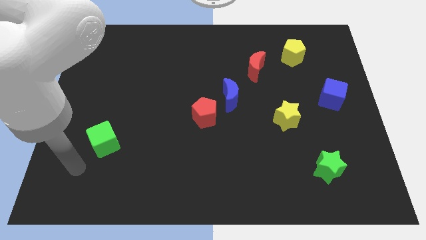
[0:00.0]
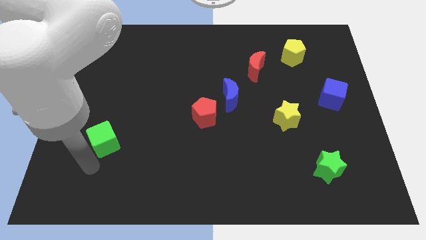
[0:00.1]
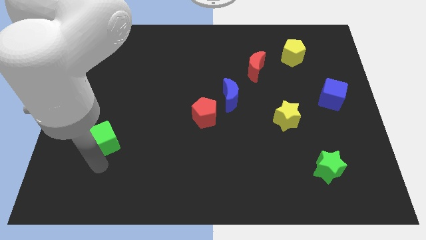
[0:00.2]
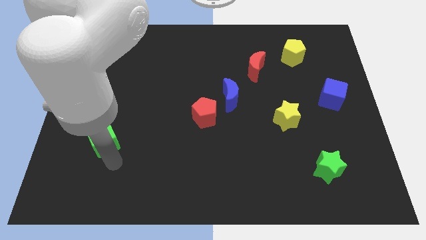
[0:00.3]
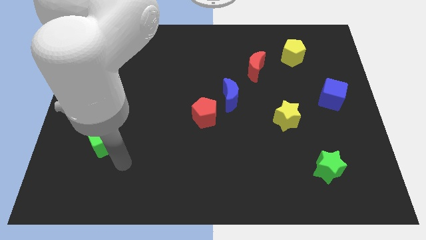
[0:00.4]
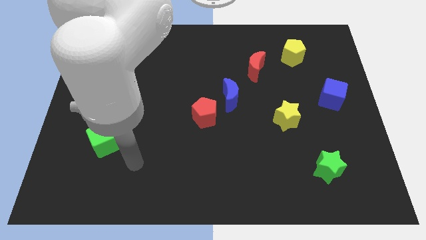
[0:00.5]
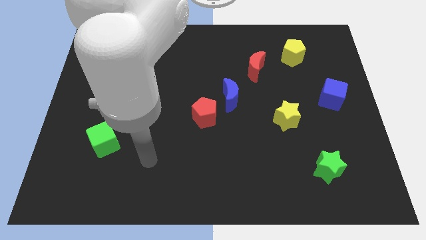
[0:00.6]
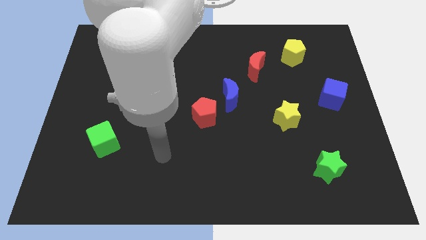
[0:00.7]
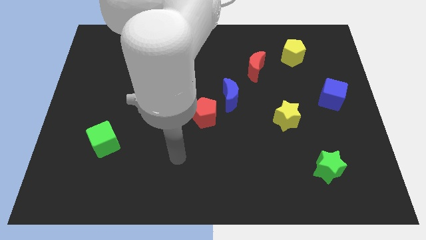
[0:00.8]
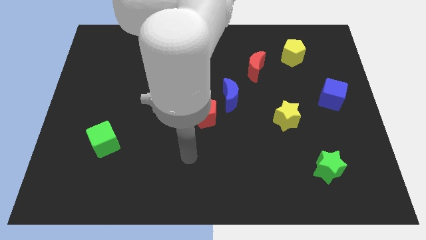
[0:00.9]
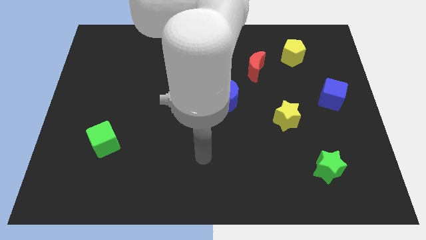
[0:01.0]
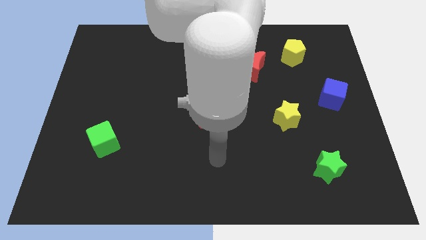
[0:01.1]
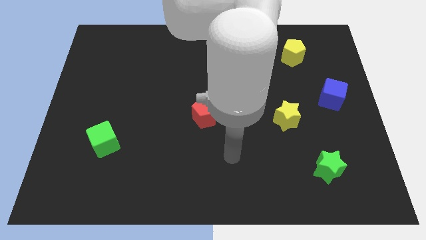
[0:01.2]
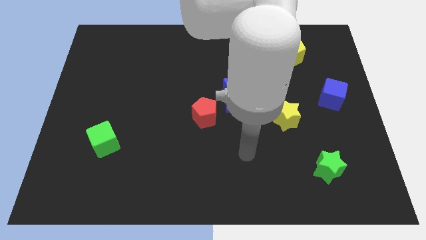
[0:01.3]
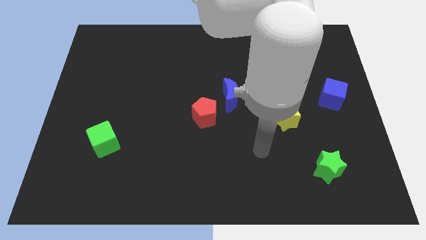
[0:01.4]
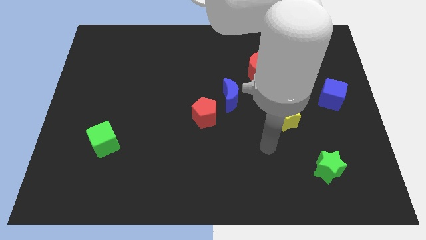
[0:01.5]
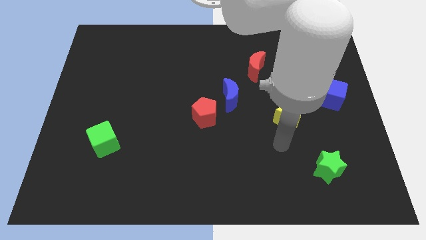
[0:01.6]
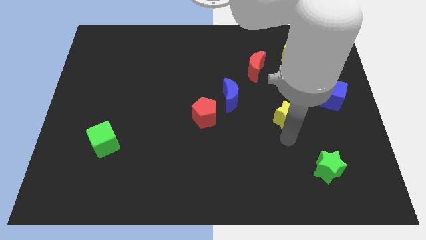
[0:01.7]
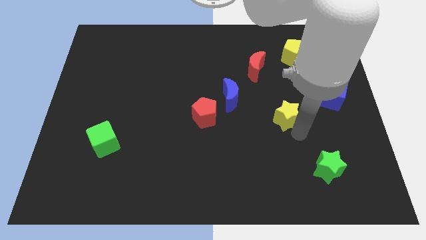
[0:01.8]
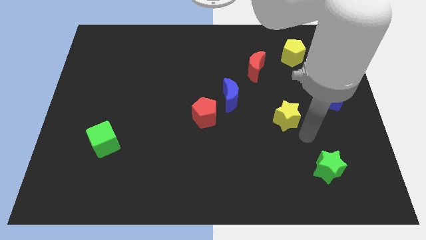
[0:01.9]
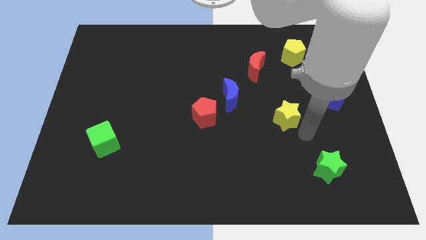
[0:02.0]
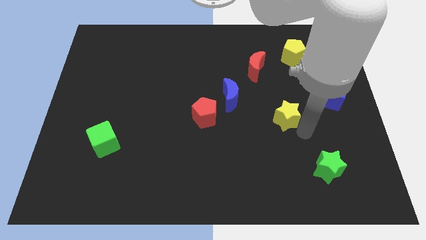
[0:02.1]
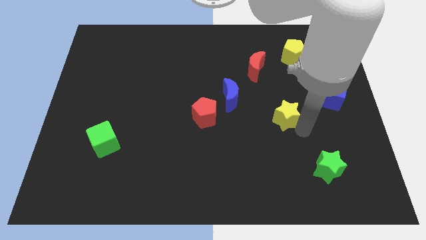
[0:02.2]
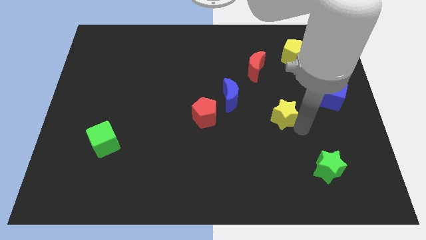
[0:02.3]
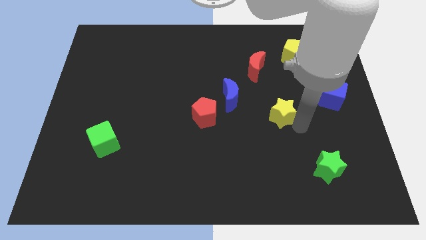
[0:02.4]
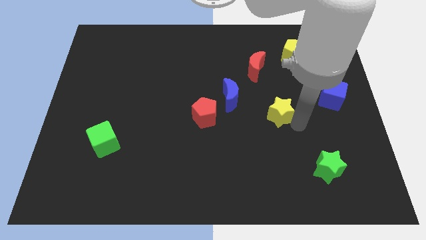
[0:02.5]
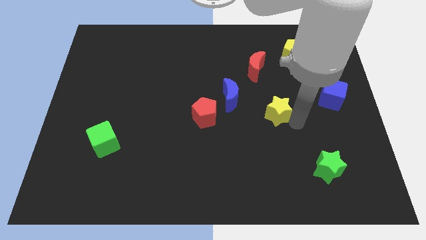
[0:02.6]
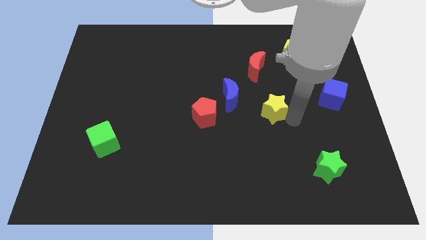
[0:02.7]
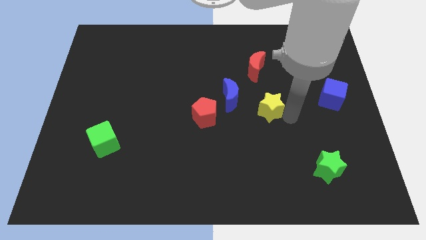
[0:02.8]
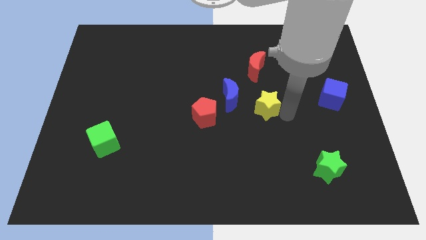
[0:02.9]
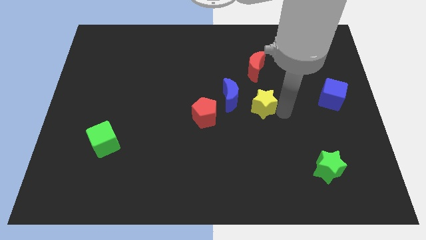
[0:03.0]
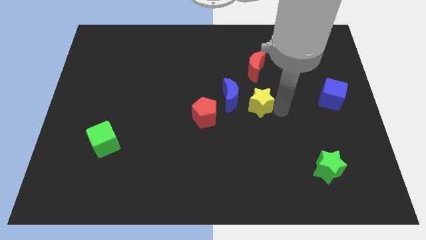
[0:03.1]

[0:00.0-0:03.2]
slide the yellow star diagonally upwards and left a little bit

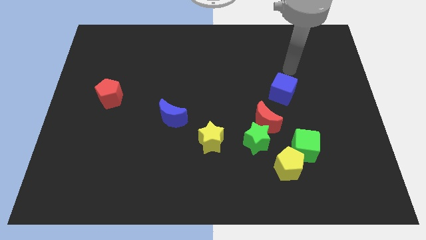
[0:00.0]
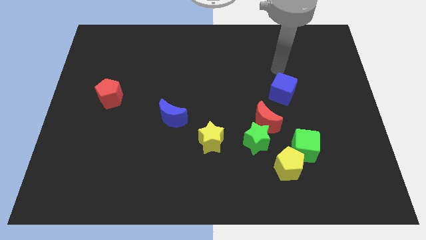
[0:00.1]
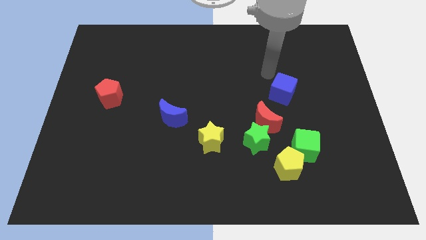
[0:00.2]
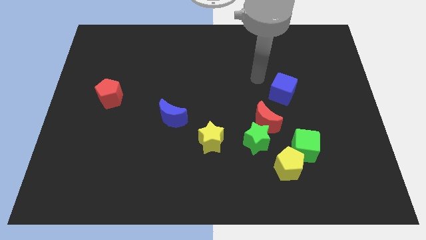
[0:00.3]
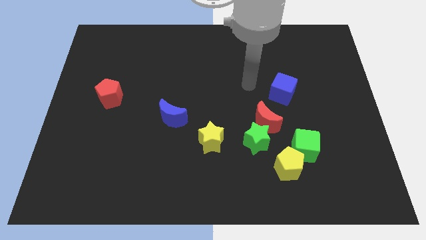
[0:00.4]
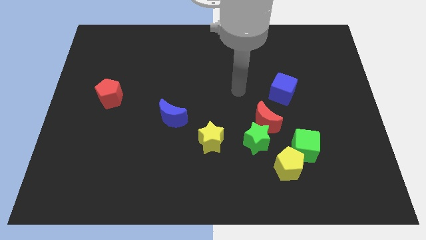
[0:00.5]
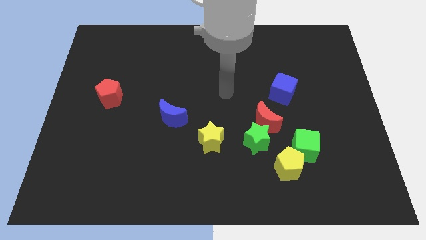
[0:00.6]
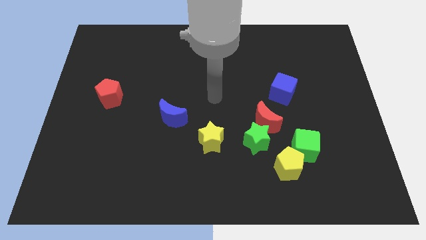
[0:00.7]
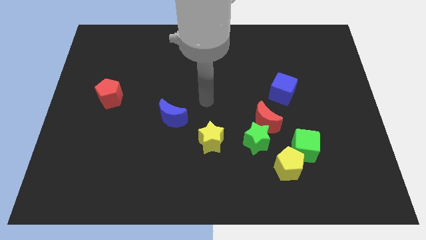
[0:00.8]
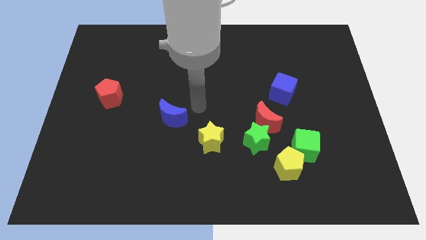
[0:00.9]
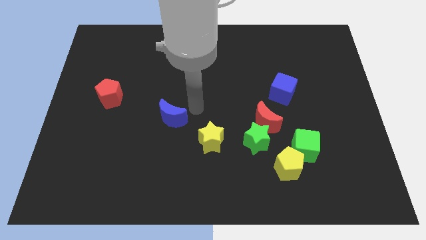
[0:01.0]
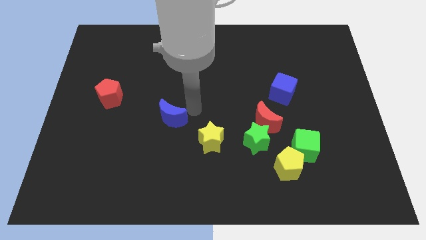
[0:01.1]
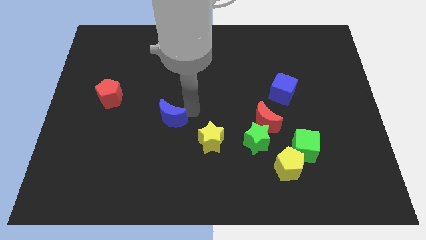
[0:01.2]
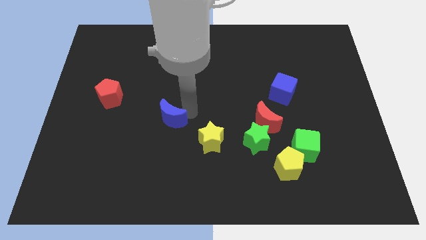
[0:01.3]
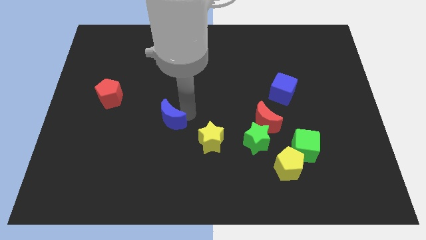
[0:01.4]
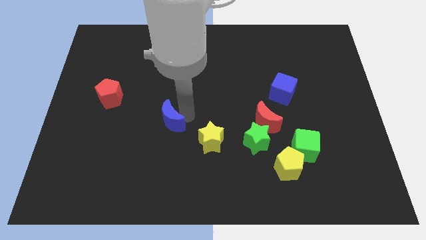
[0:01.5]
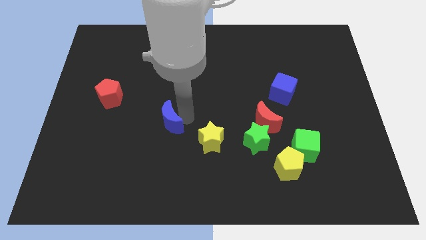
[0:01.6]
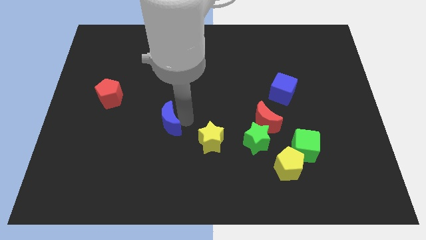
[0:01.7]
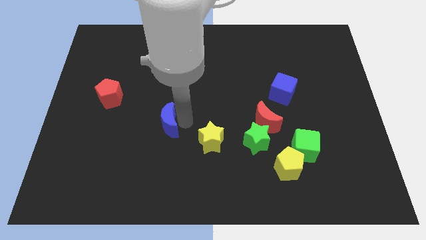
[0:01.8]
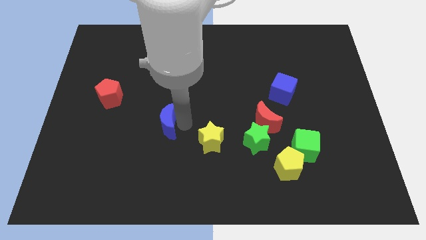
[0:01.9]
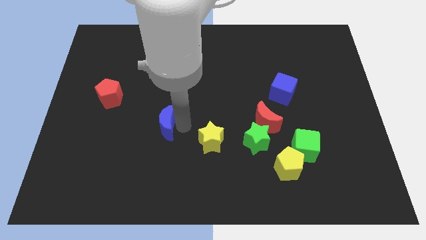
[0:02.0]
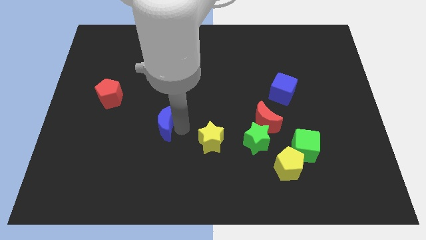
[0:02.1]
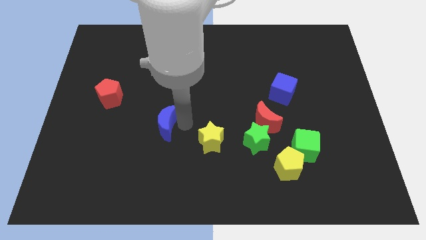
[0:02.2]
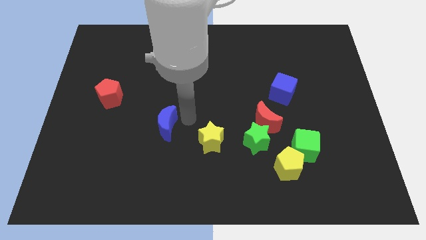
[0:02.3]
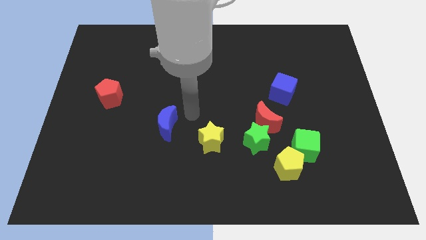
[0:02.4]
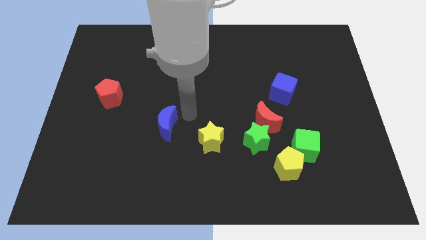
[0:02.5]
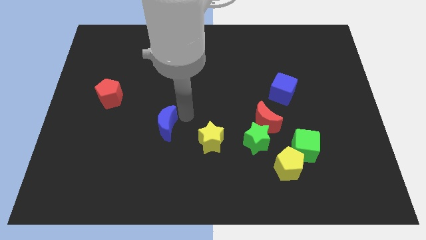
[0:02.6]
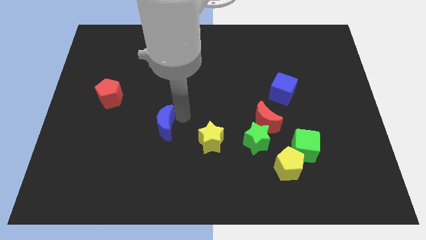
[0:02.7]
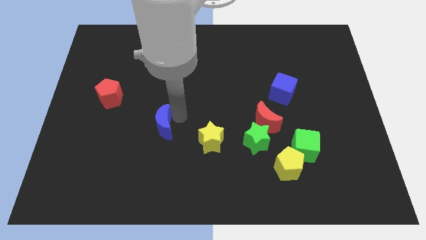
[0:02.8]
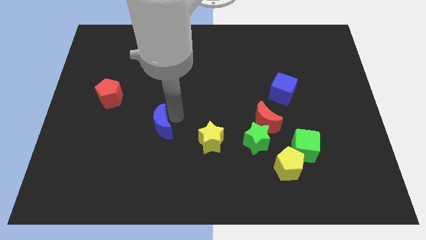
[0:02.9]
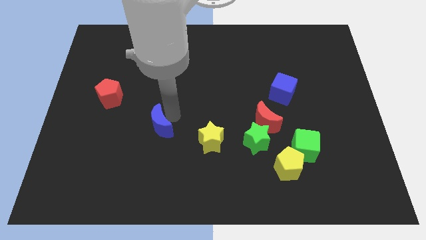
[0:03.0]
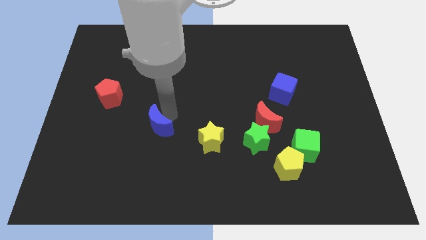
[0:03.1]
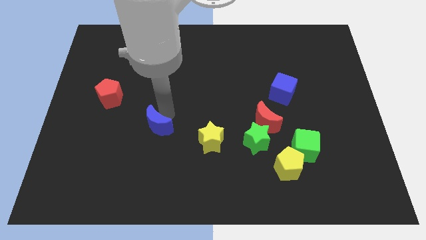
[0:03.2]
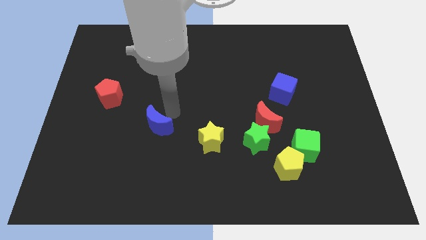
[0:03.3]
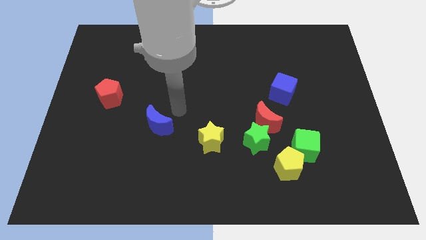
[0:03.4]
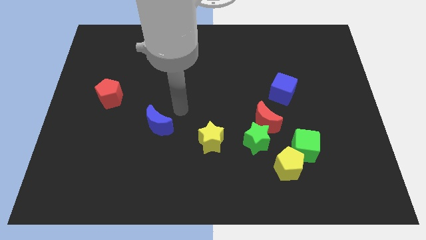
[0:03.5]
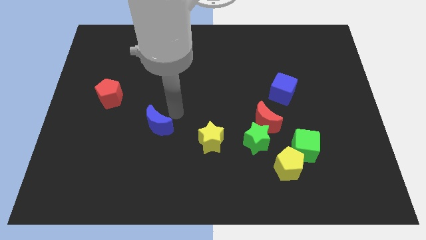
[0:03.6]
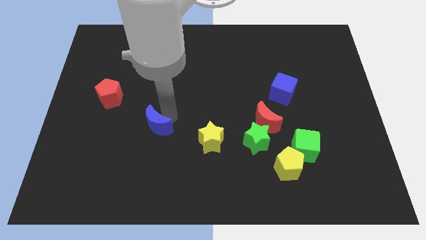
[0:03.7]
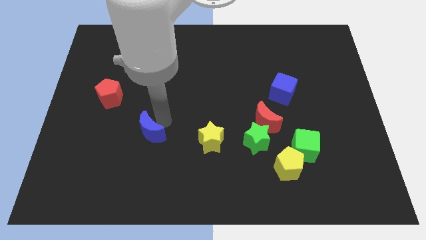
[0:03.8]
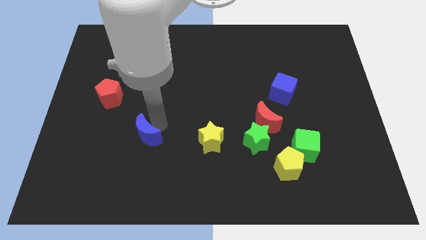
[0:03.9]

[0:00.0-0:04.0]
slightly push the blue moon down and then left

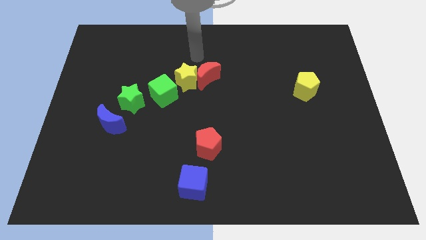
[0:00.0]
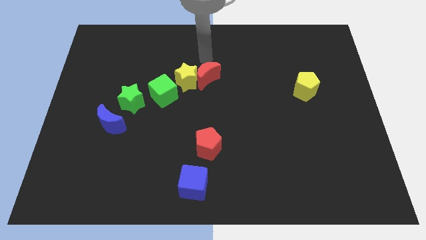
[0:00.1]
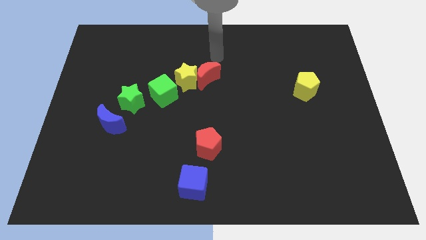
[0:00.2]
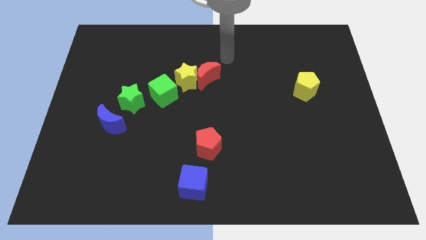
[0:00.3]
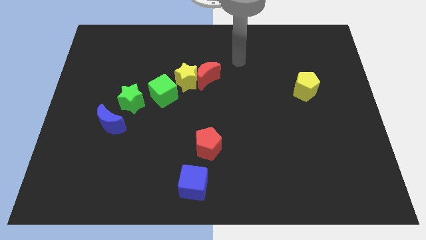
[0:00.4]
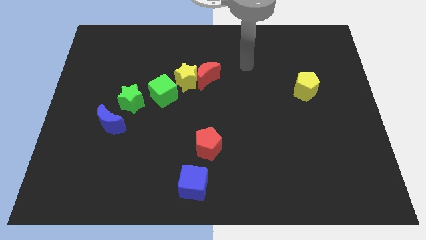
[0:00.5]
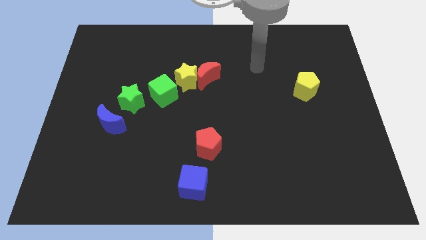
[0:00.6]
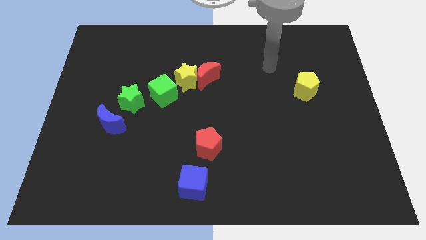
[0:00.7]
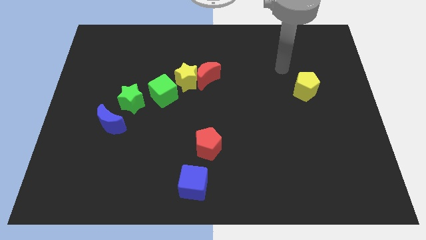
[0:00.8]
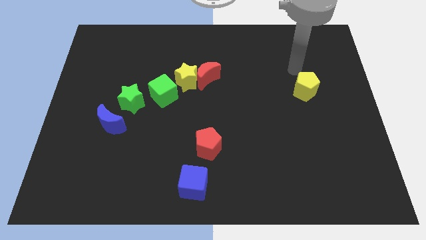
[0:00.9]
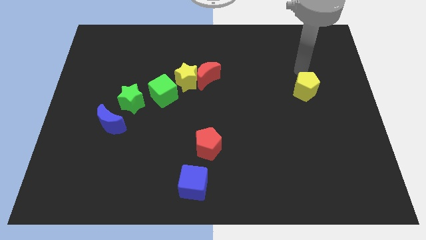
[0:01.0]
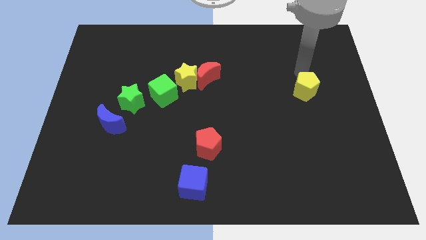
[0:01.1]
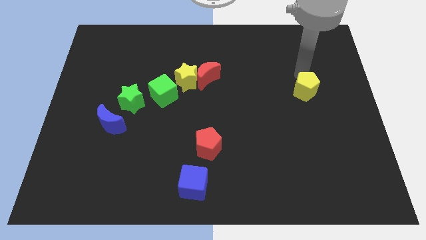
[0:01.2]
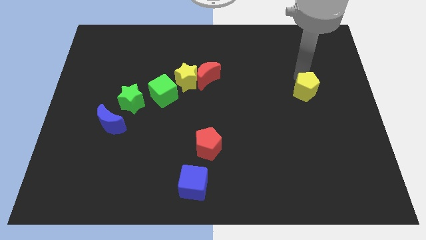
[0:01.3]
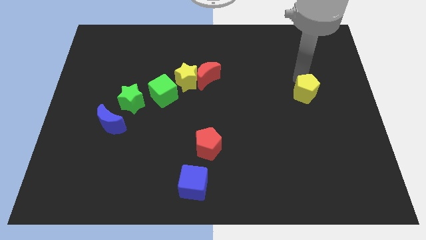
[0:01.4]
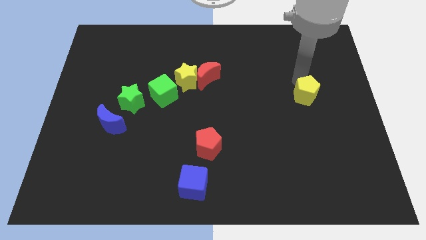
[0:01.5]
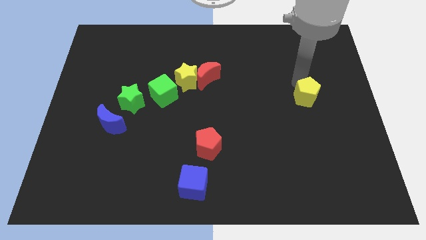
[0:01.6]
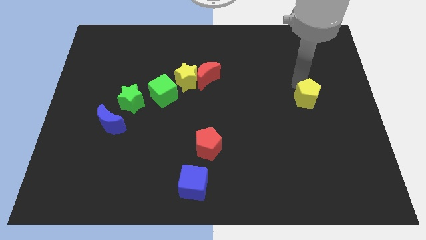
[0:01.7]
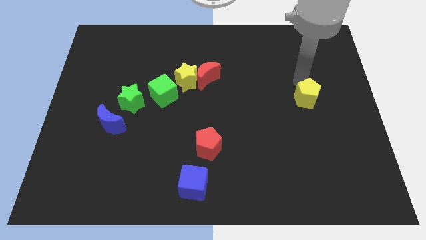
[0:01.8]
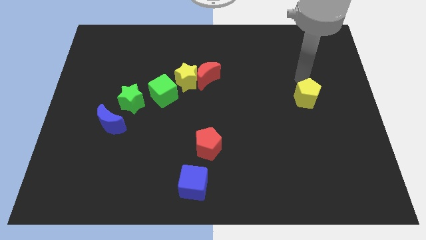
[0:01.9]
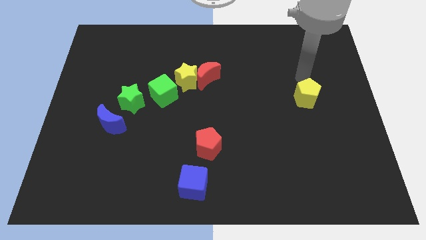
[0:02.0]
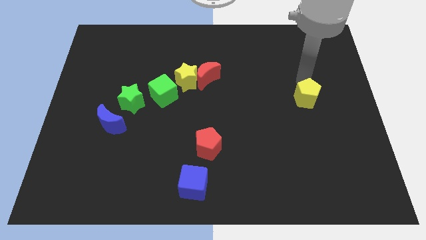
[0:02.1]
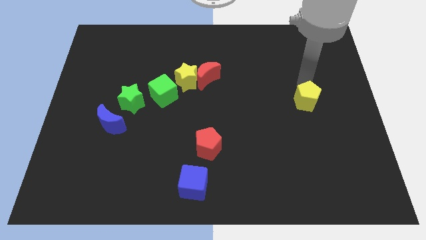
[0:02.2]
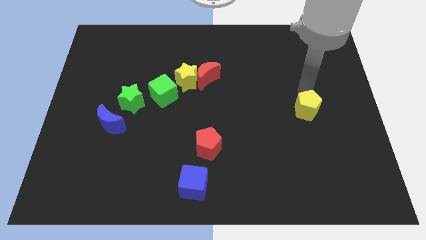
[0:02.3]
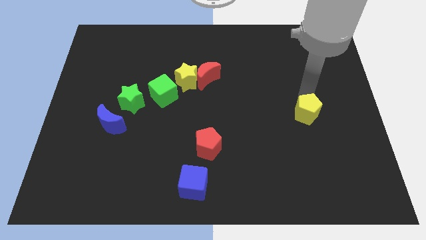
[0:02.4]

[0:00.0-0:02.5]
push the yellow pentagon down a little
